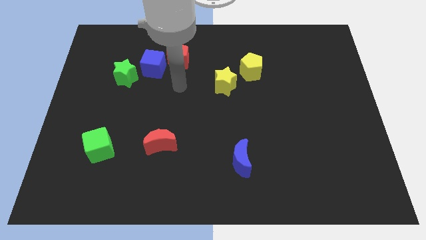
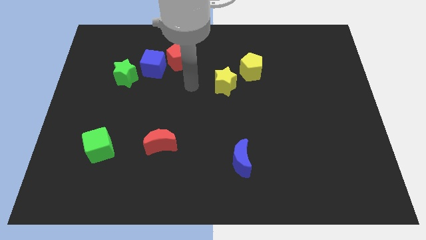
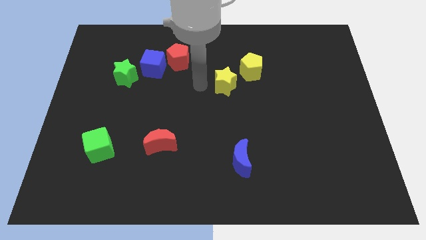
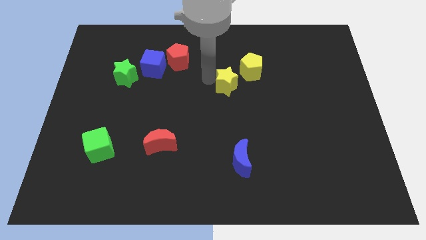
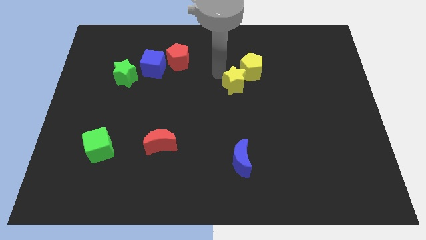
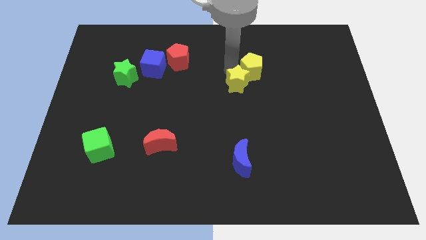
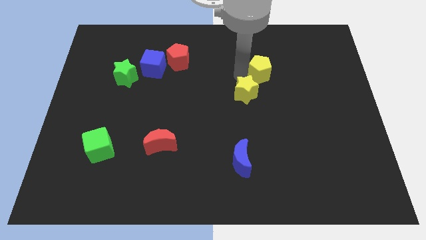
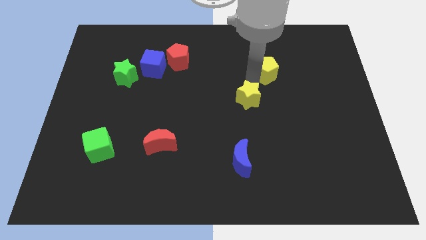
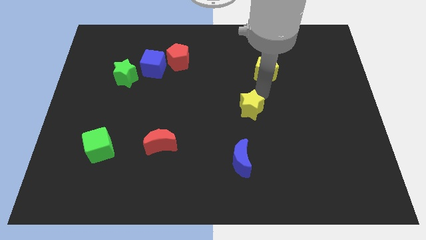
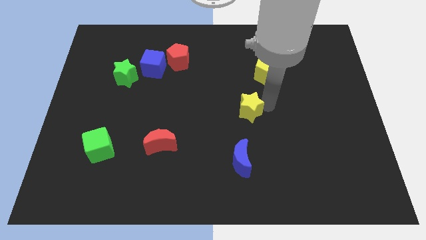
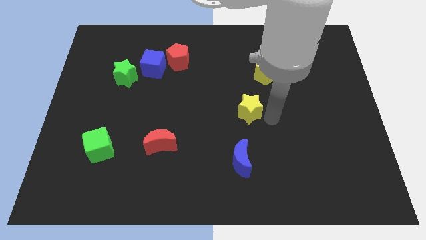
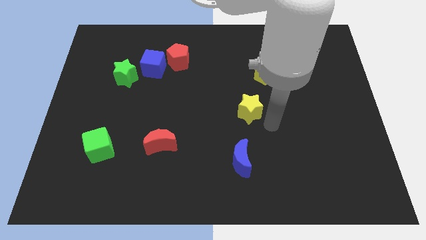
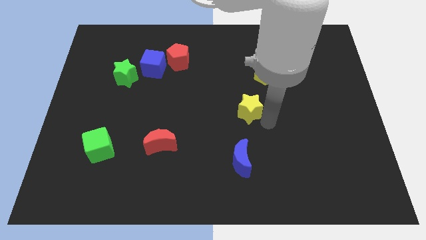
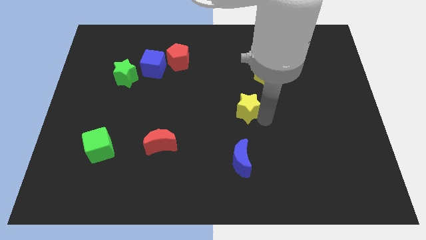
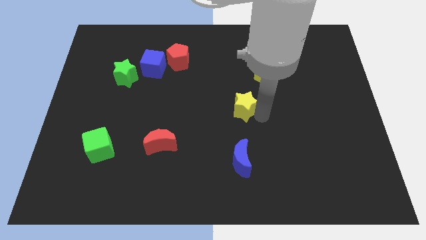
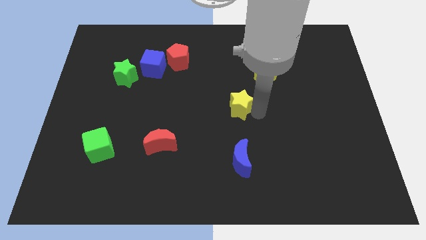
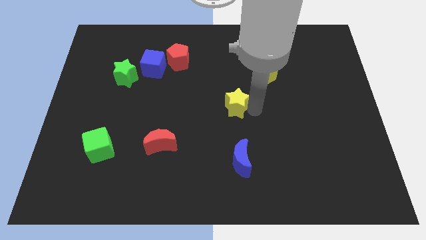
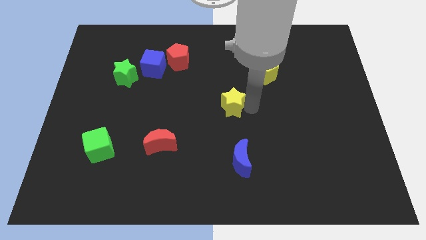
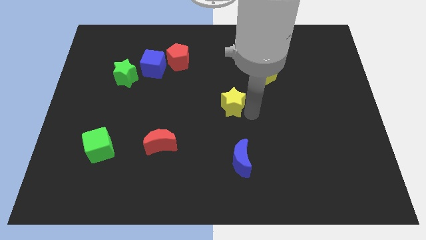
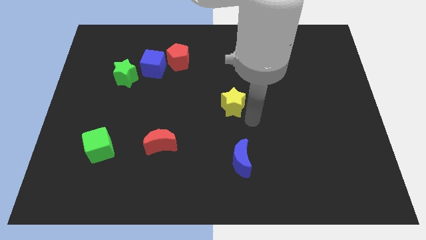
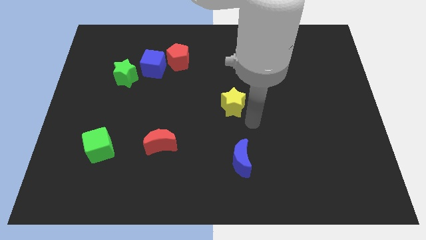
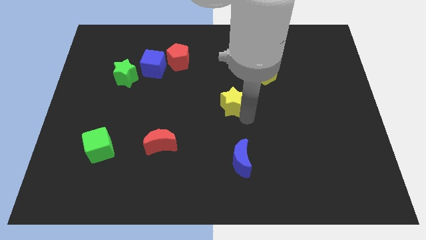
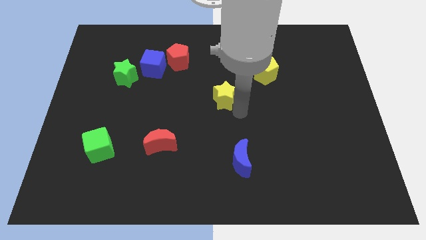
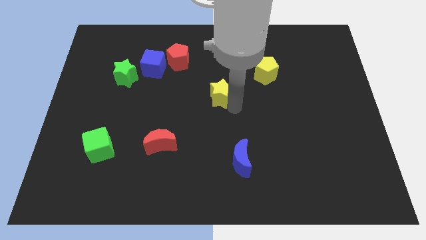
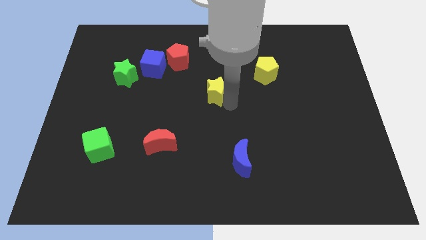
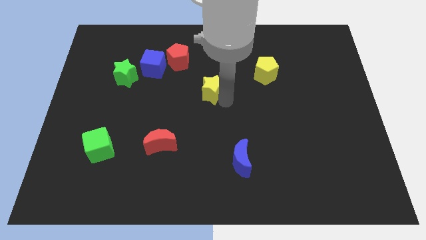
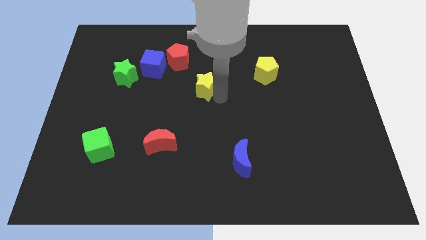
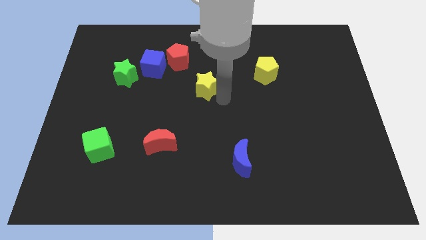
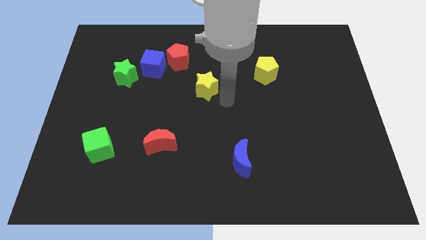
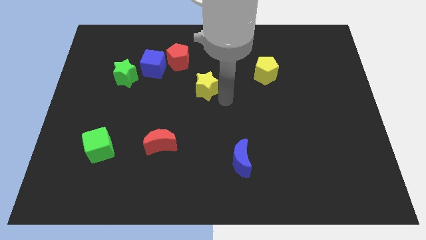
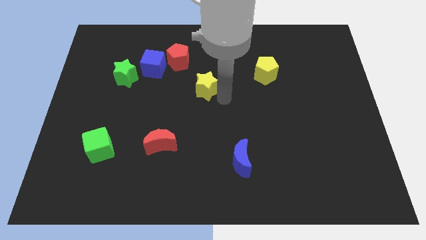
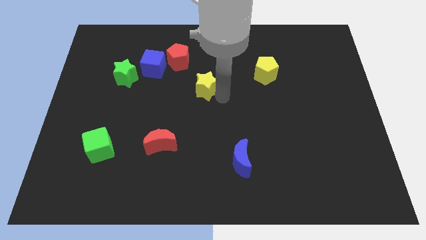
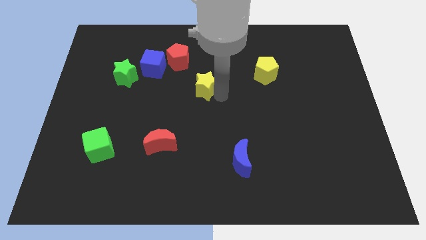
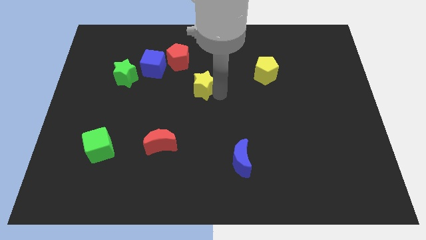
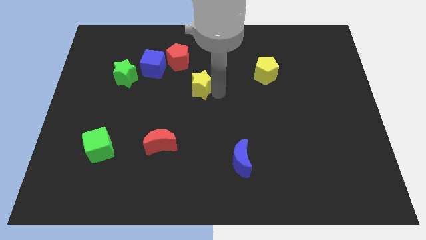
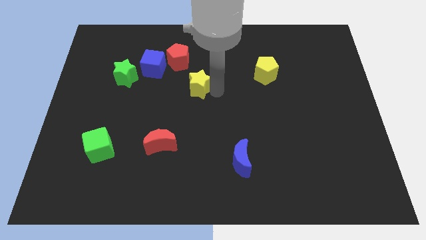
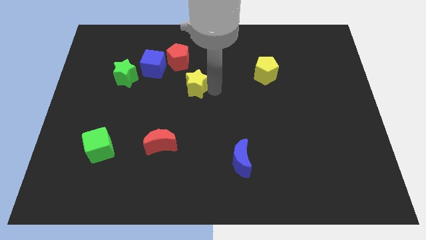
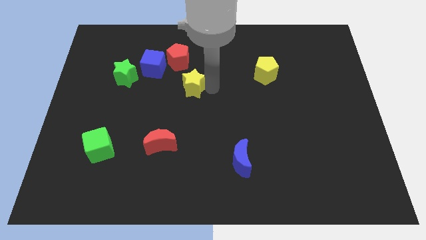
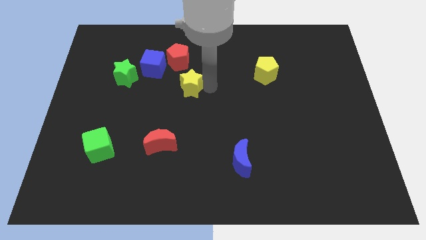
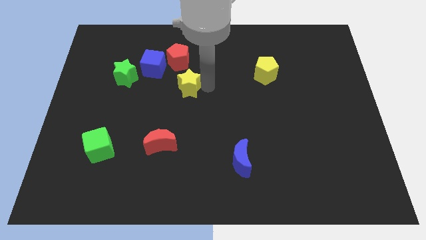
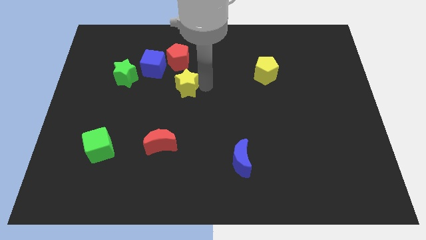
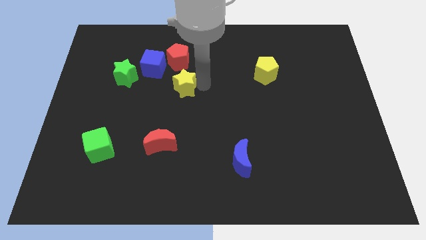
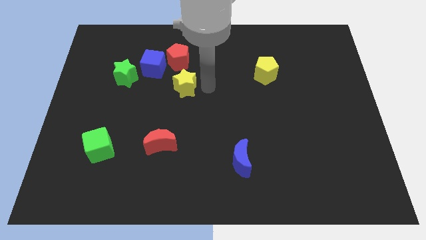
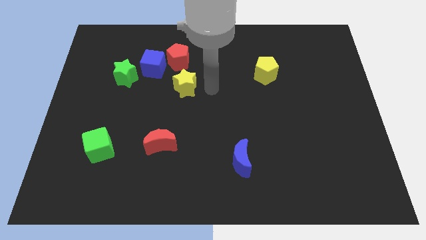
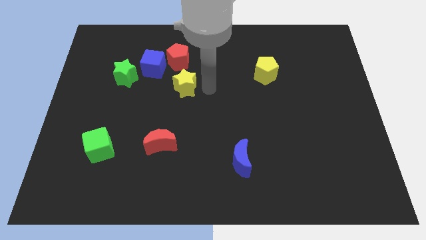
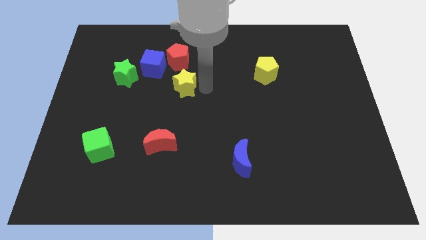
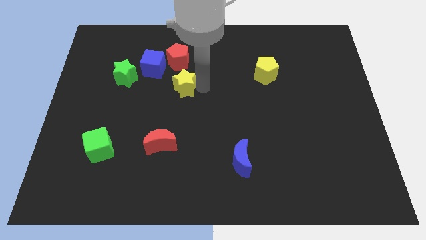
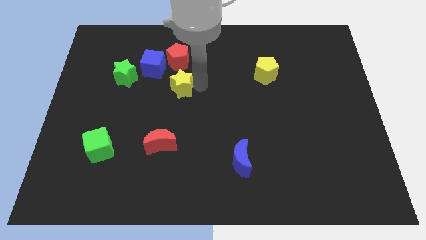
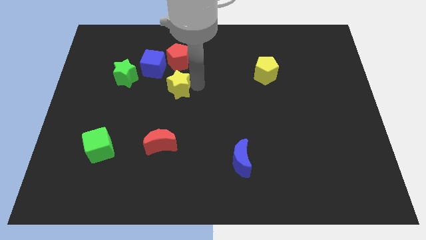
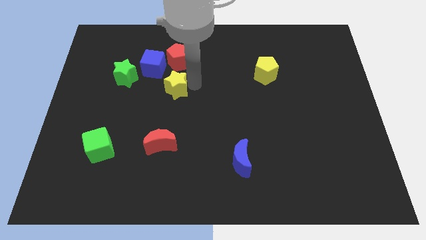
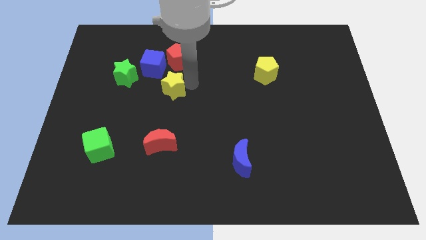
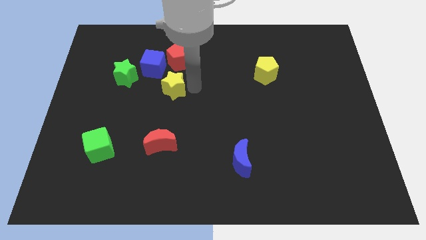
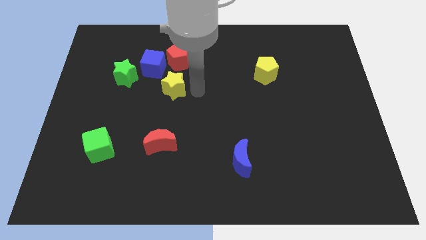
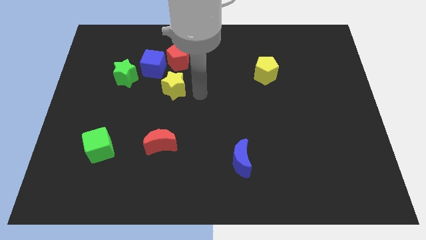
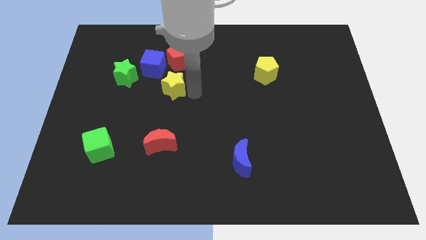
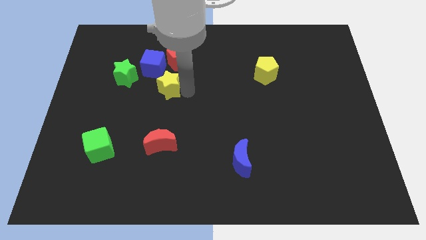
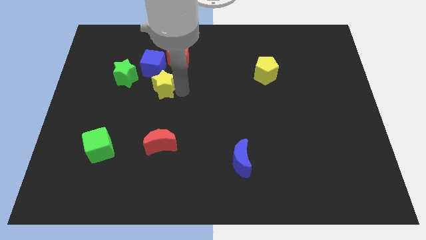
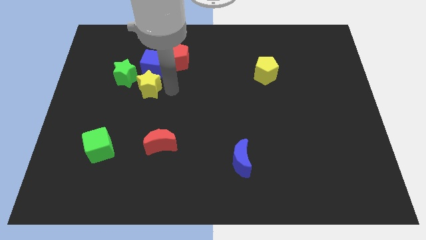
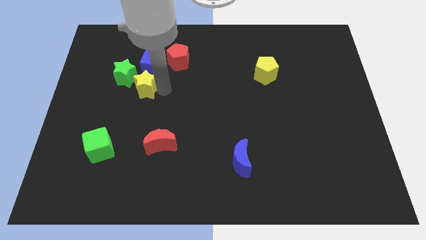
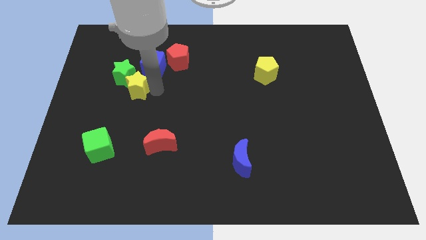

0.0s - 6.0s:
put the yellow star to the green star

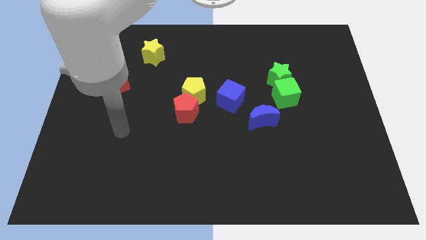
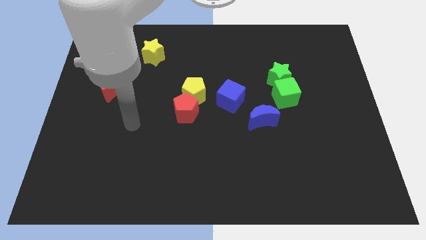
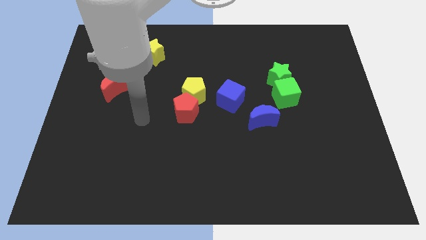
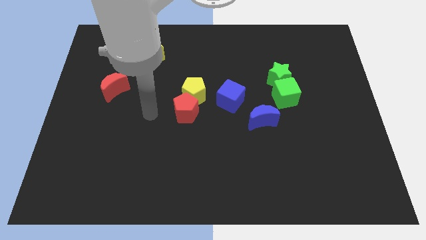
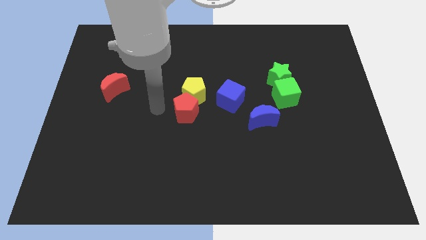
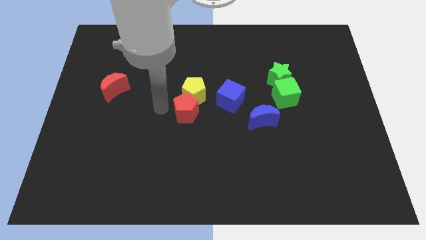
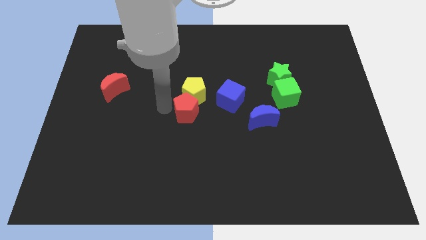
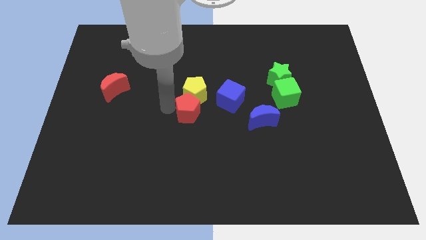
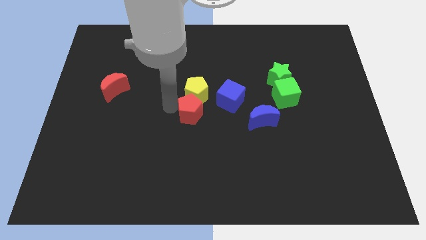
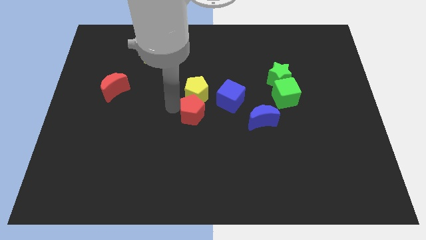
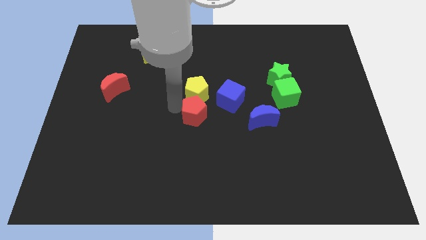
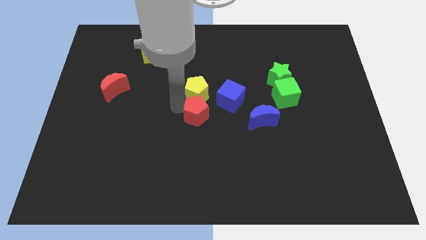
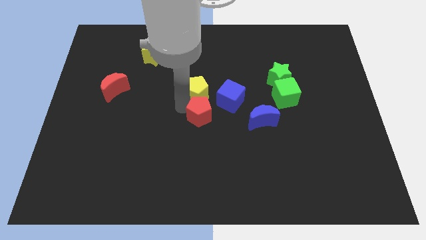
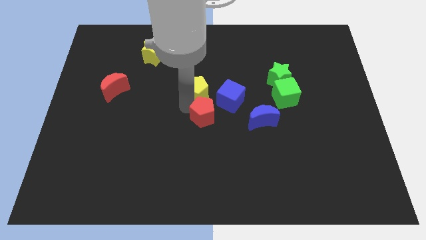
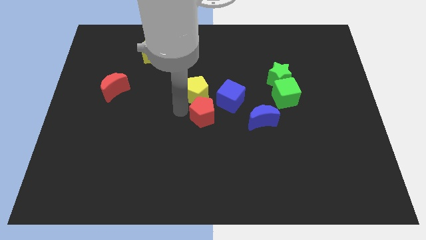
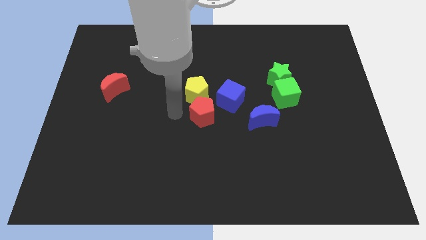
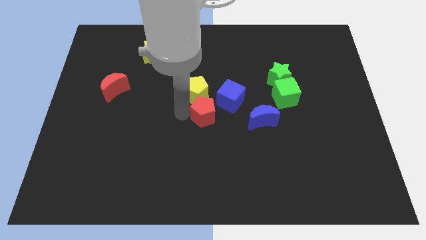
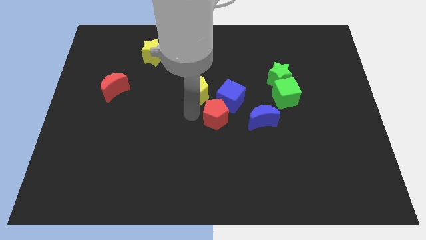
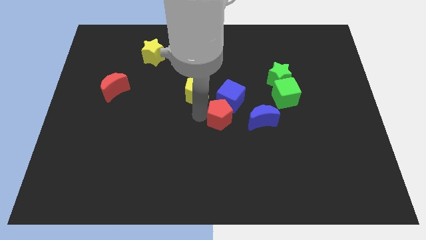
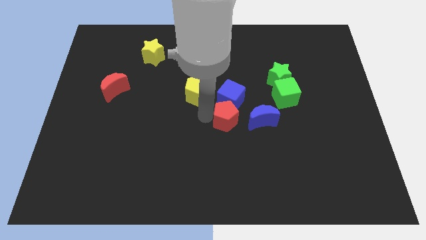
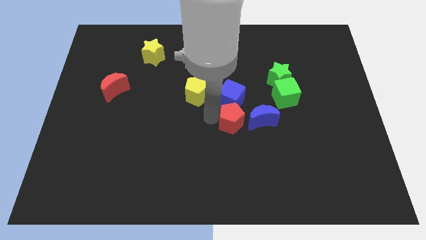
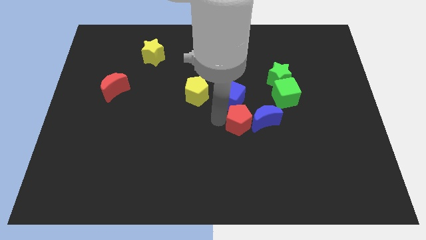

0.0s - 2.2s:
put the red pentagon towards the blue moon
